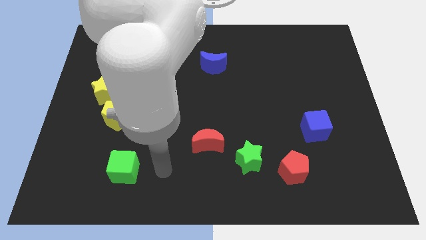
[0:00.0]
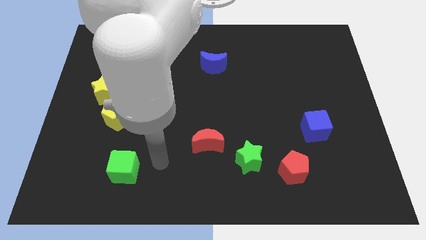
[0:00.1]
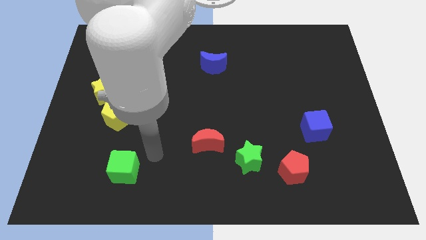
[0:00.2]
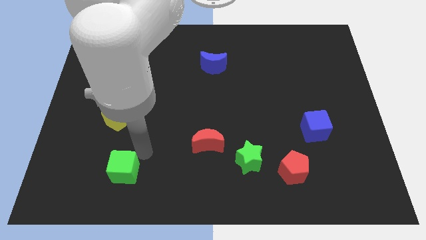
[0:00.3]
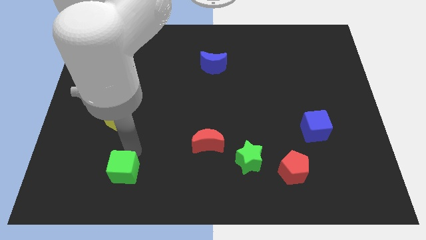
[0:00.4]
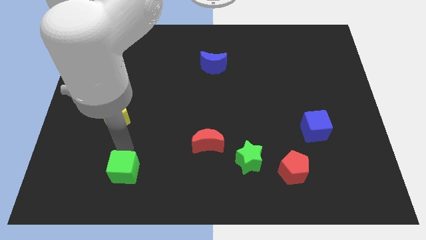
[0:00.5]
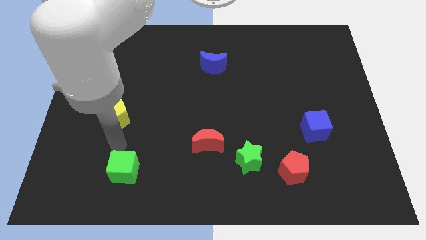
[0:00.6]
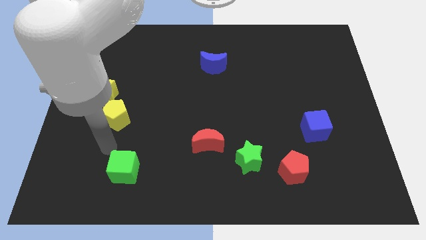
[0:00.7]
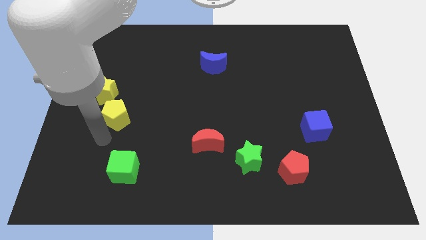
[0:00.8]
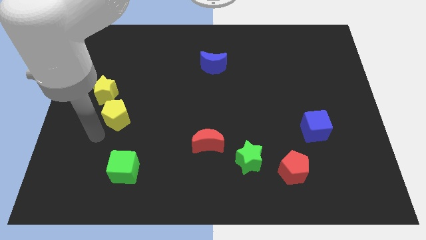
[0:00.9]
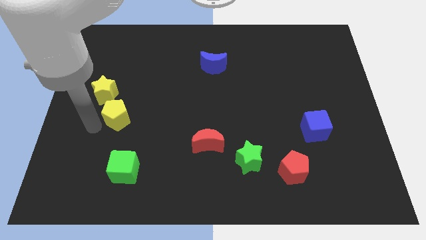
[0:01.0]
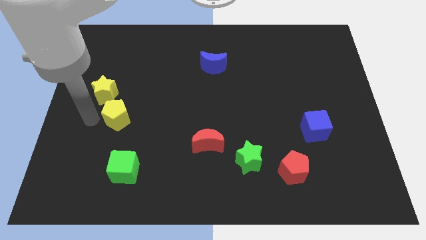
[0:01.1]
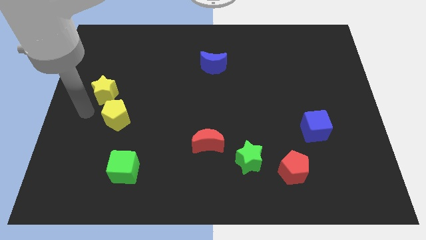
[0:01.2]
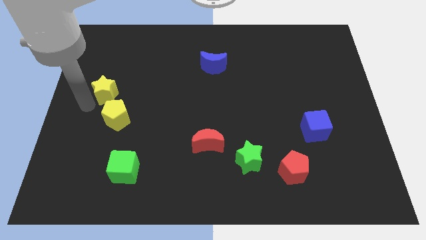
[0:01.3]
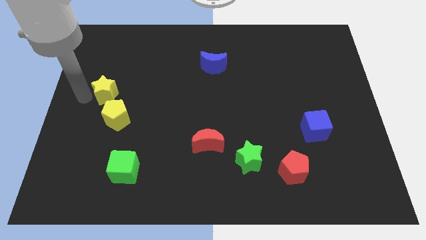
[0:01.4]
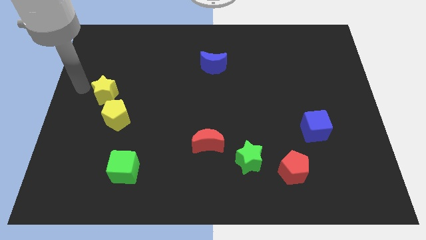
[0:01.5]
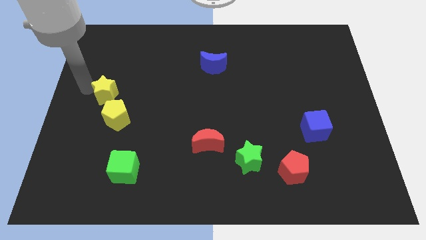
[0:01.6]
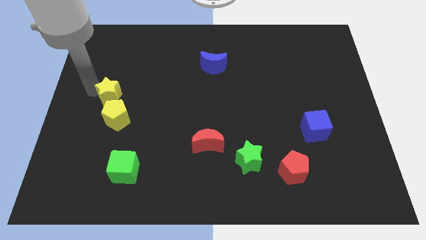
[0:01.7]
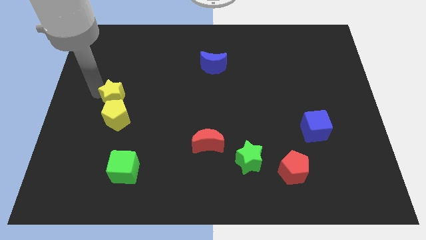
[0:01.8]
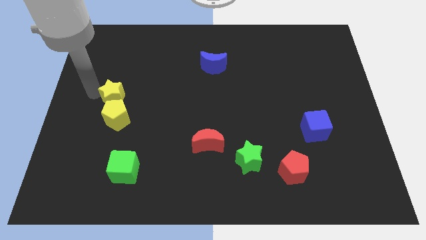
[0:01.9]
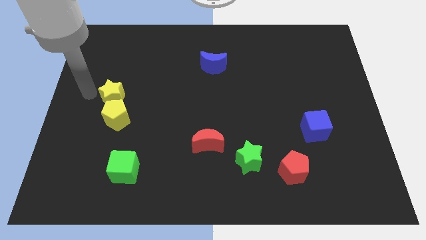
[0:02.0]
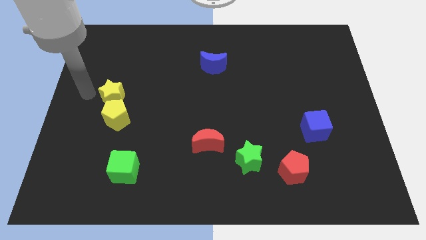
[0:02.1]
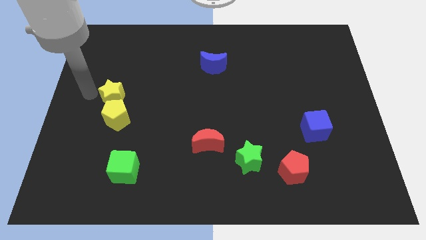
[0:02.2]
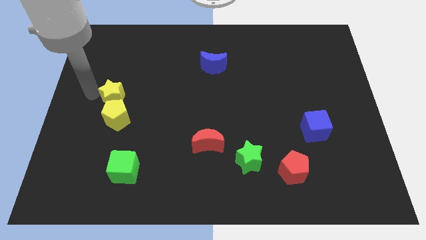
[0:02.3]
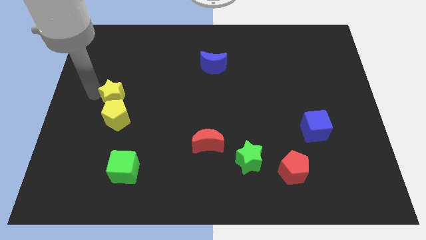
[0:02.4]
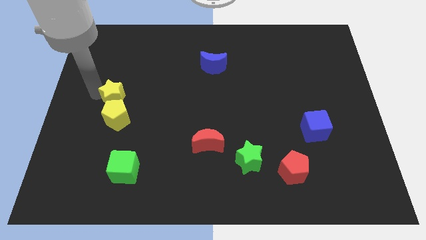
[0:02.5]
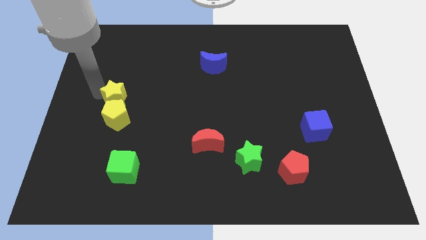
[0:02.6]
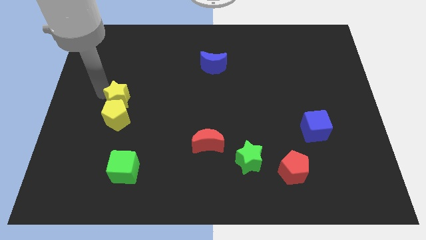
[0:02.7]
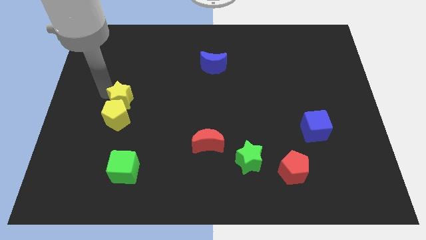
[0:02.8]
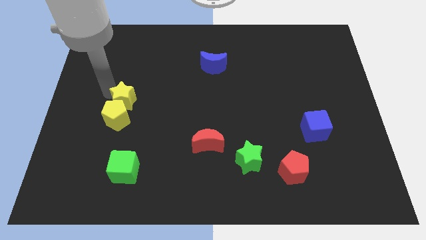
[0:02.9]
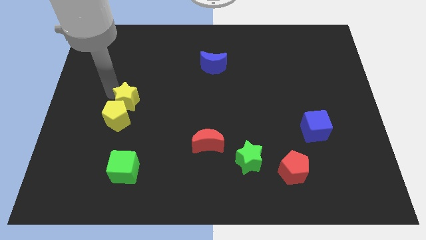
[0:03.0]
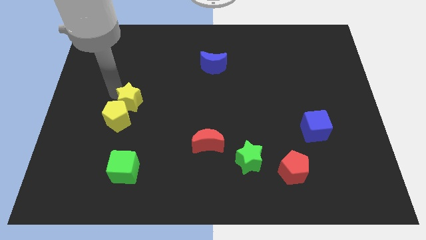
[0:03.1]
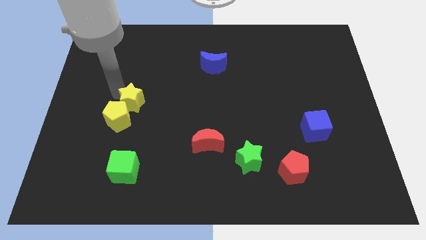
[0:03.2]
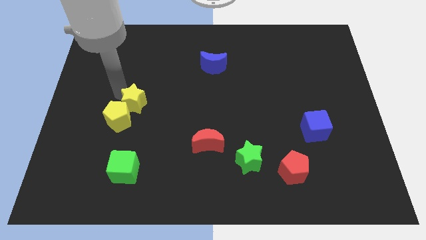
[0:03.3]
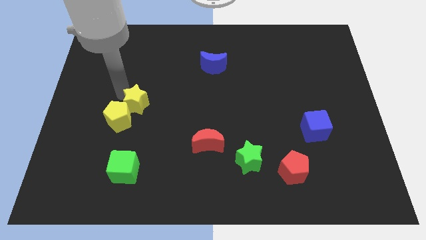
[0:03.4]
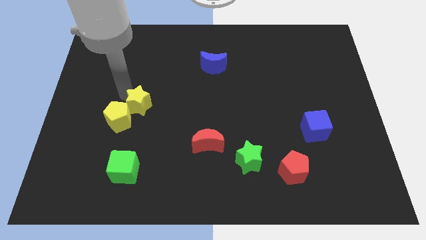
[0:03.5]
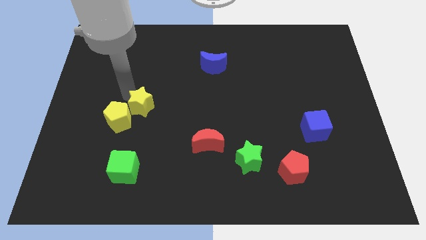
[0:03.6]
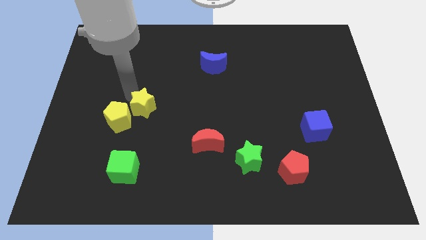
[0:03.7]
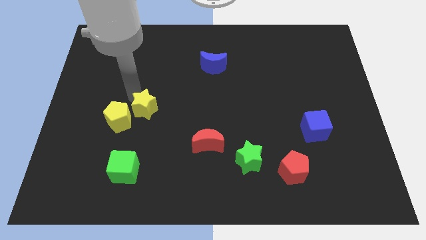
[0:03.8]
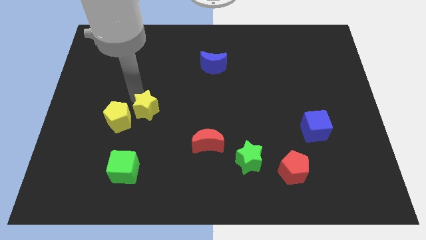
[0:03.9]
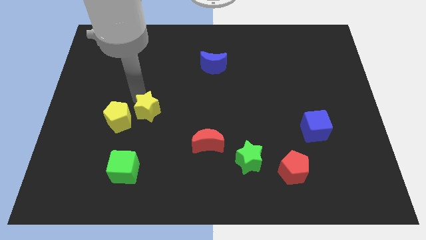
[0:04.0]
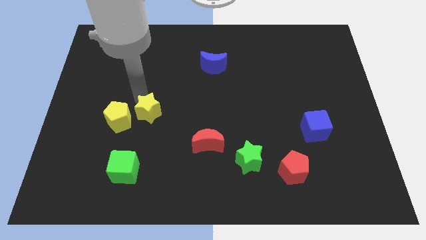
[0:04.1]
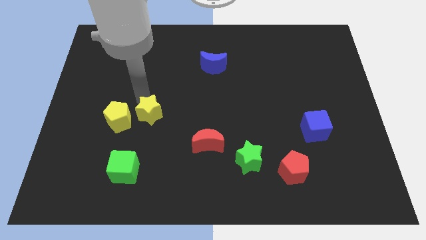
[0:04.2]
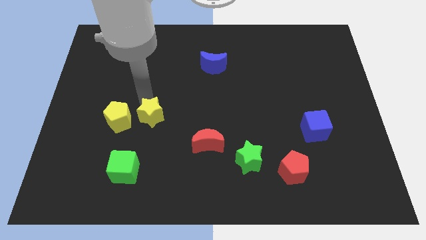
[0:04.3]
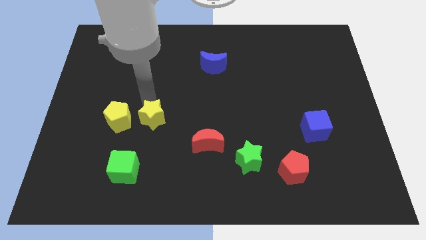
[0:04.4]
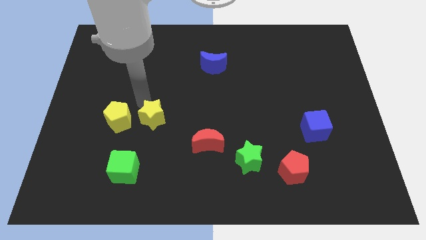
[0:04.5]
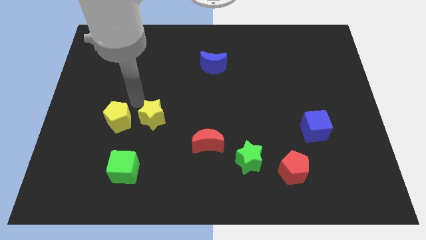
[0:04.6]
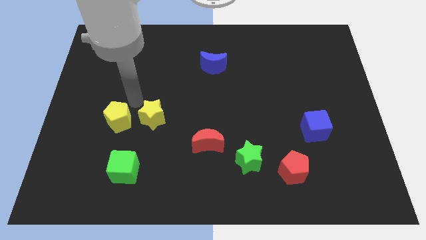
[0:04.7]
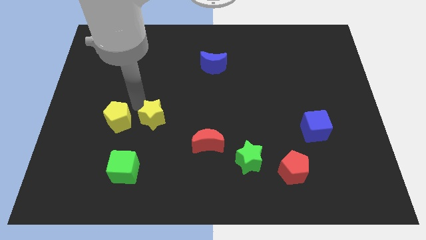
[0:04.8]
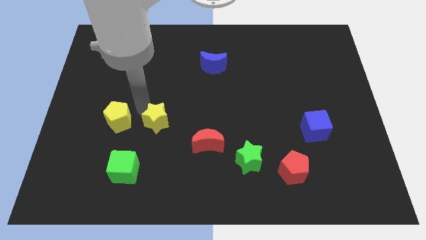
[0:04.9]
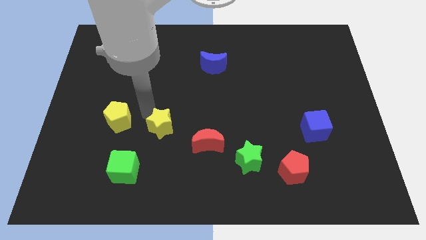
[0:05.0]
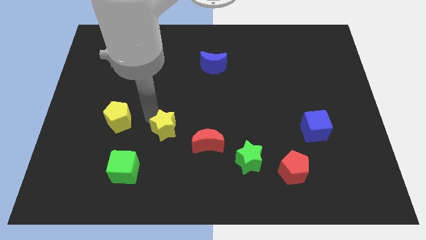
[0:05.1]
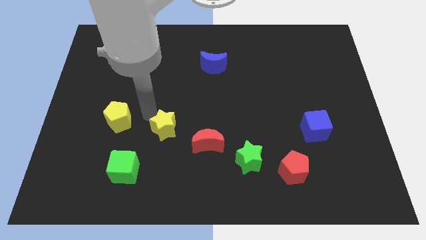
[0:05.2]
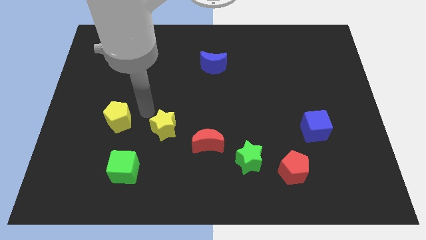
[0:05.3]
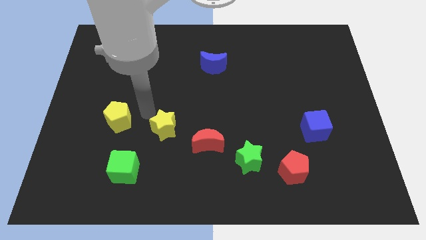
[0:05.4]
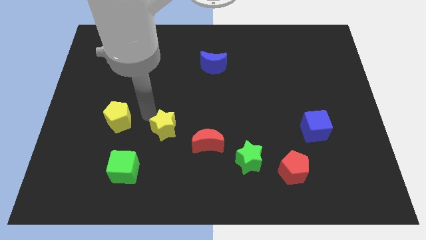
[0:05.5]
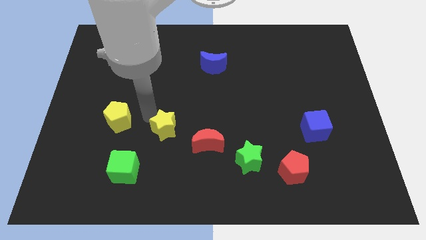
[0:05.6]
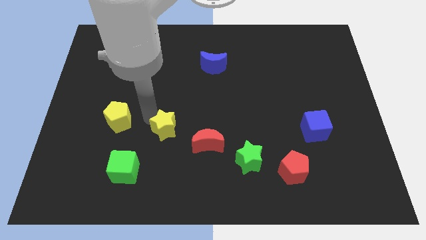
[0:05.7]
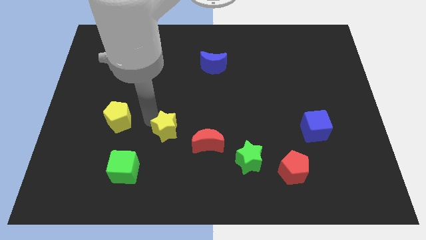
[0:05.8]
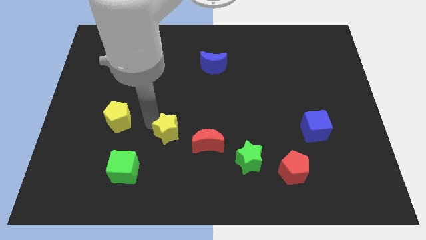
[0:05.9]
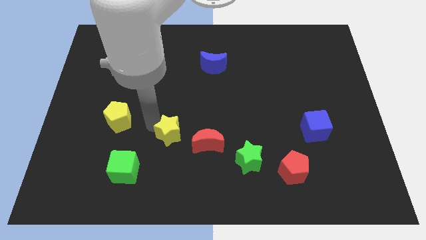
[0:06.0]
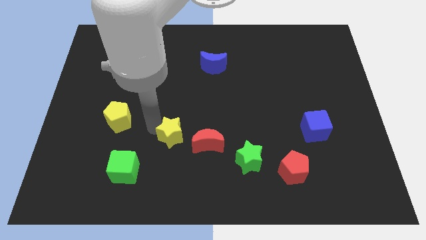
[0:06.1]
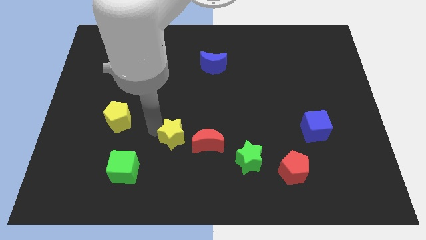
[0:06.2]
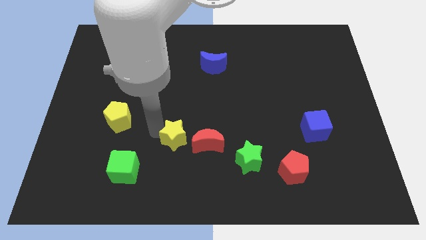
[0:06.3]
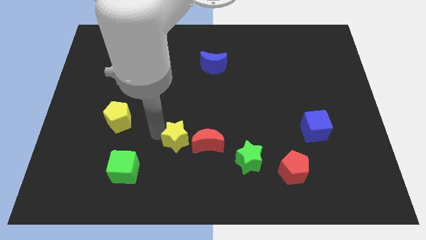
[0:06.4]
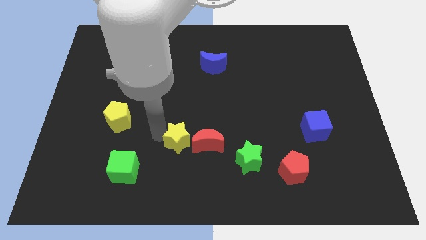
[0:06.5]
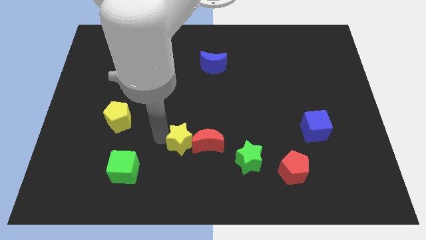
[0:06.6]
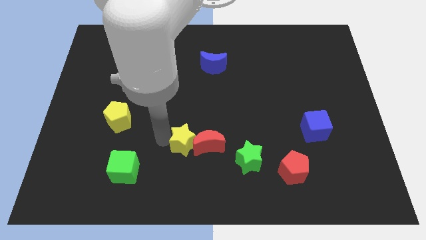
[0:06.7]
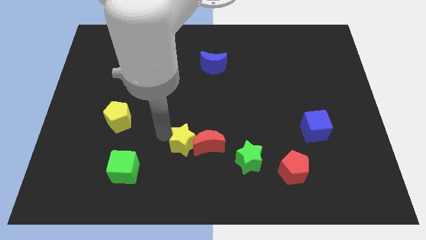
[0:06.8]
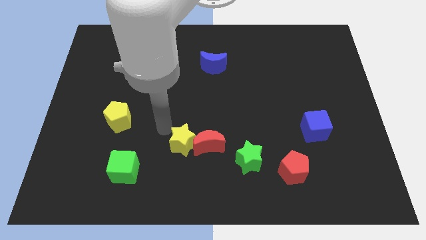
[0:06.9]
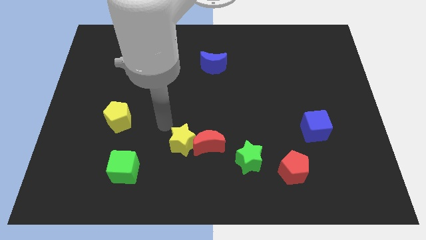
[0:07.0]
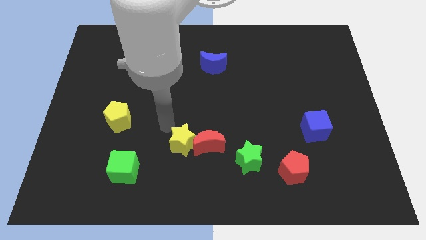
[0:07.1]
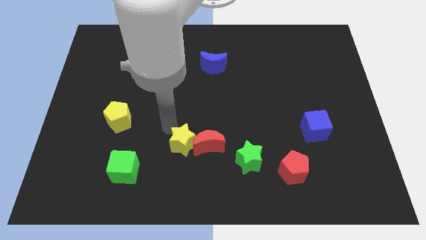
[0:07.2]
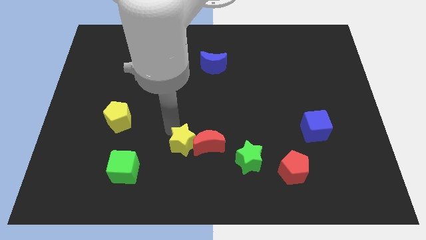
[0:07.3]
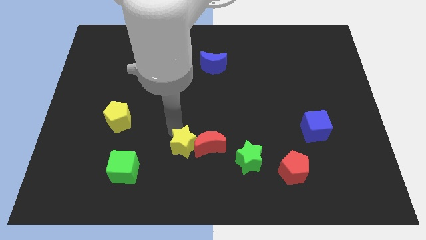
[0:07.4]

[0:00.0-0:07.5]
push the yellow star to the left side of the green star
